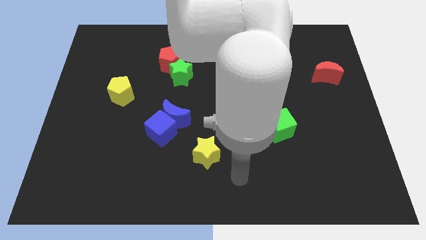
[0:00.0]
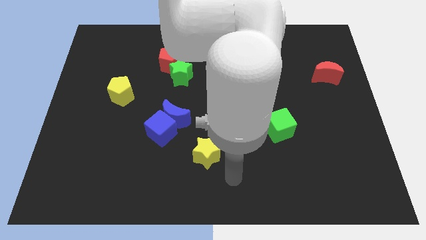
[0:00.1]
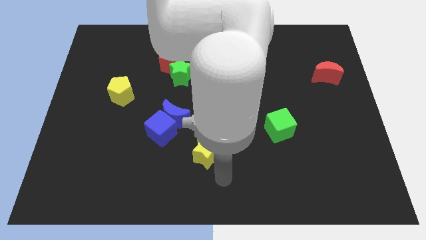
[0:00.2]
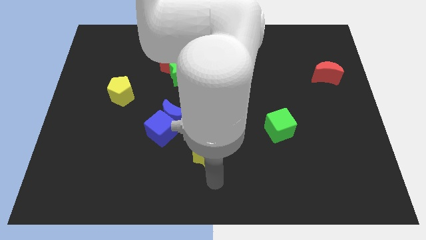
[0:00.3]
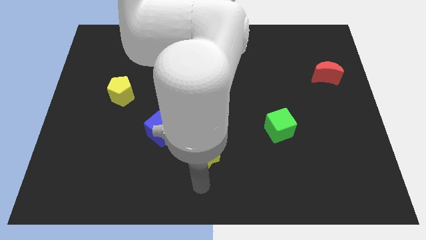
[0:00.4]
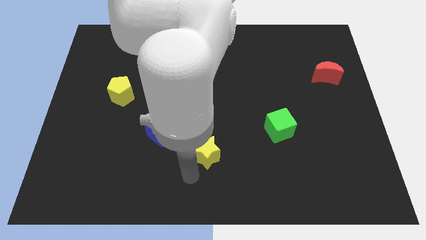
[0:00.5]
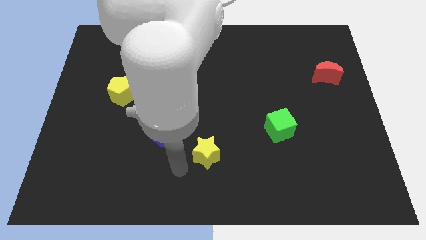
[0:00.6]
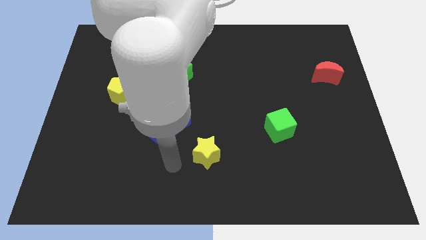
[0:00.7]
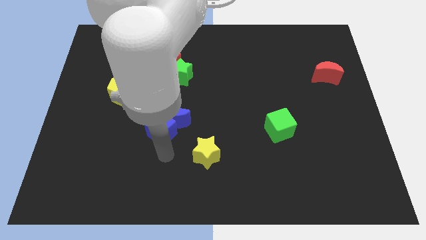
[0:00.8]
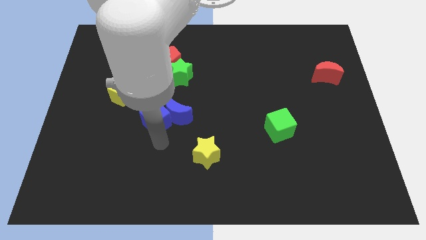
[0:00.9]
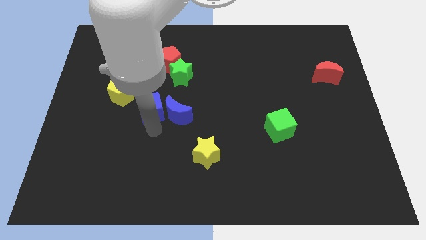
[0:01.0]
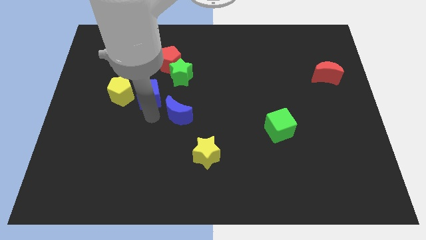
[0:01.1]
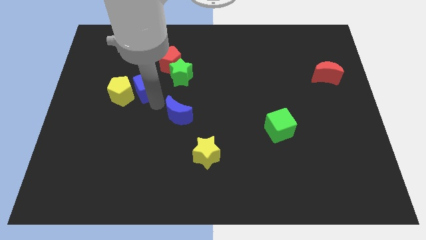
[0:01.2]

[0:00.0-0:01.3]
pull the blue moon apart from the blue cube

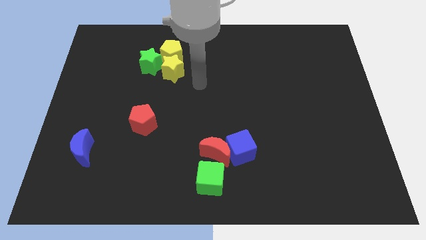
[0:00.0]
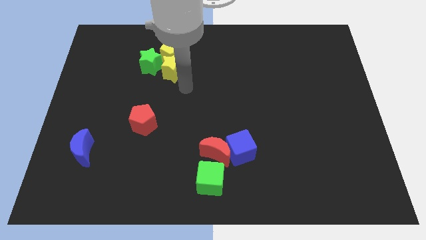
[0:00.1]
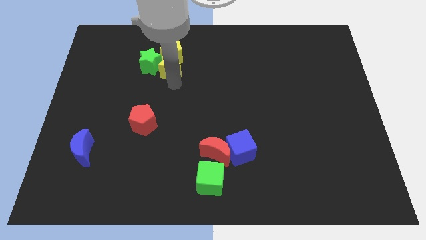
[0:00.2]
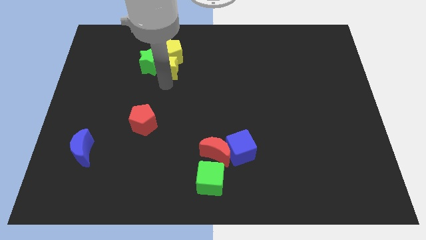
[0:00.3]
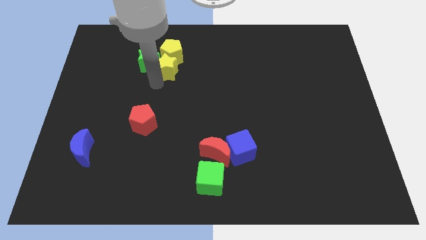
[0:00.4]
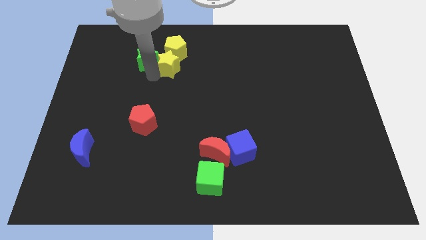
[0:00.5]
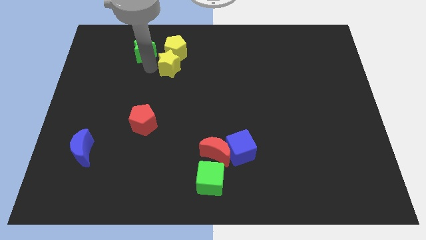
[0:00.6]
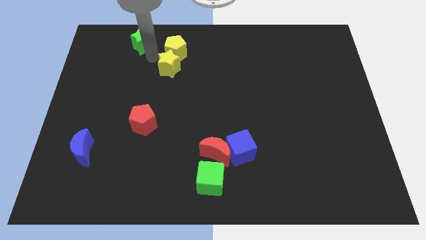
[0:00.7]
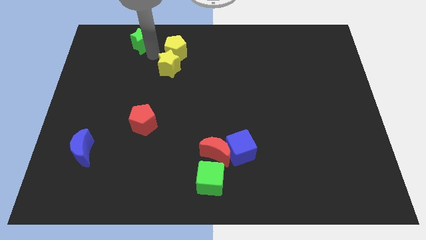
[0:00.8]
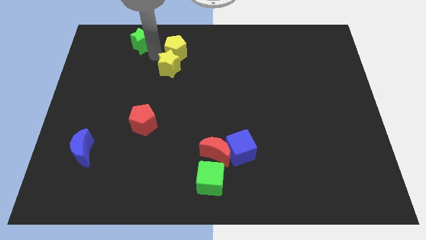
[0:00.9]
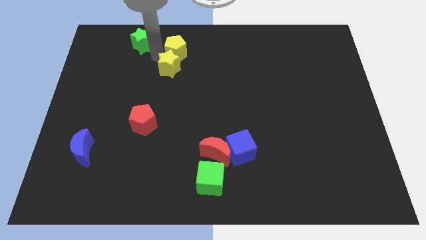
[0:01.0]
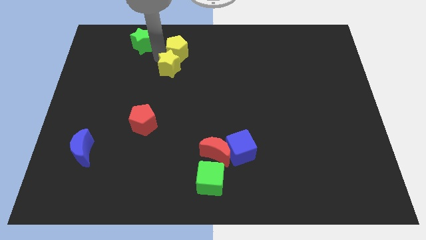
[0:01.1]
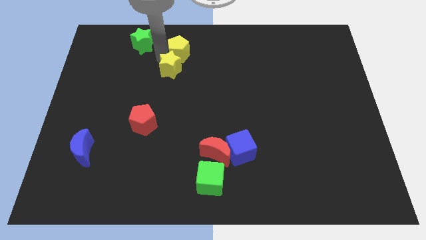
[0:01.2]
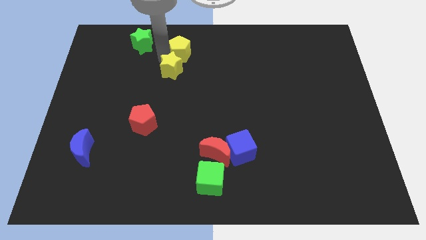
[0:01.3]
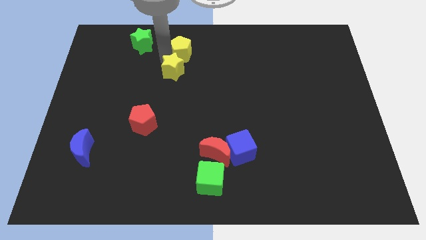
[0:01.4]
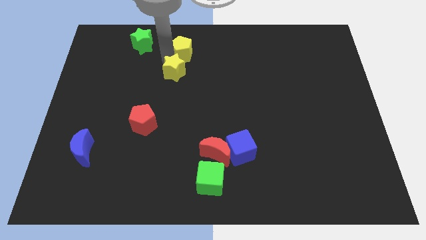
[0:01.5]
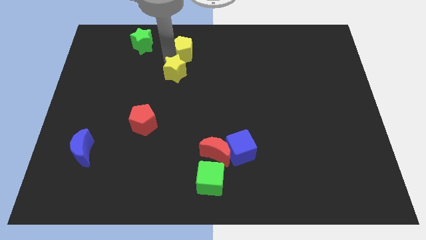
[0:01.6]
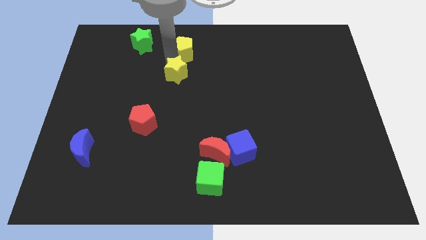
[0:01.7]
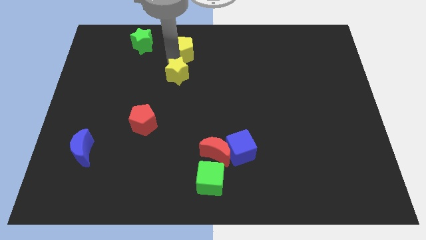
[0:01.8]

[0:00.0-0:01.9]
move the yellow star away from the yellow pentagon and green star

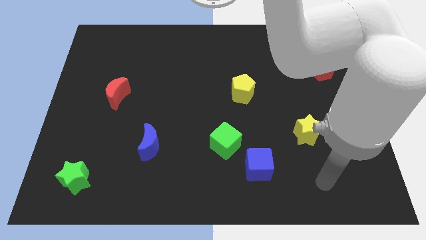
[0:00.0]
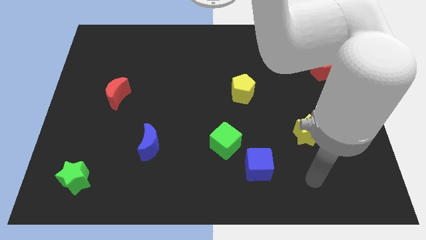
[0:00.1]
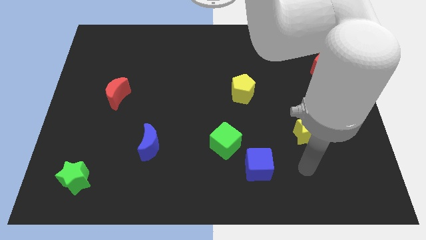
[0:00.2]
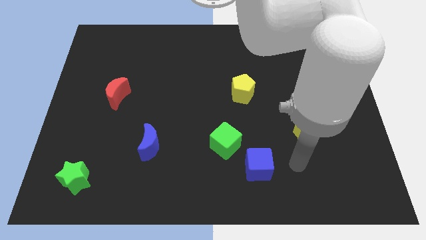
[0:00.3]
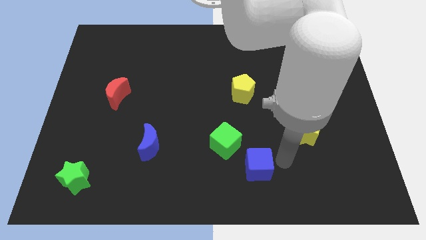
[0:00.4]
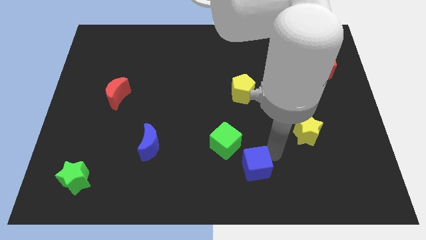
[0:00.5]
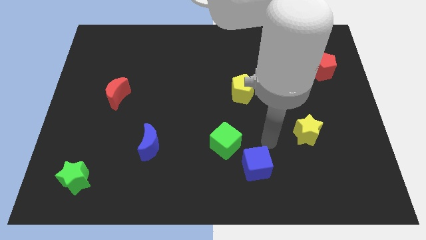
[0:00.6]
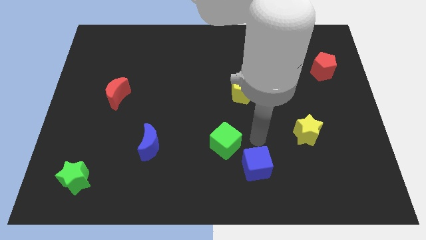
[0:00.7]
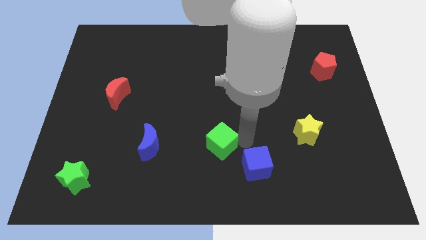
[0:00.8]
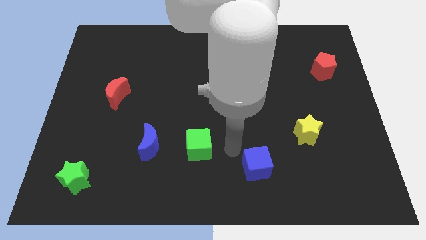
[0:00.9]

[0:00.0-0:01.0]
pull the blue cube apart from the green cube

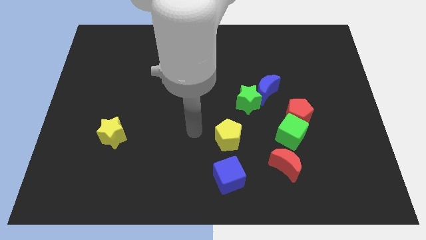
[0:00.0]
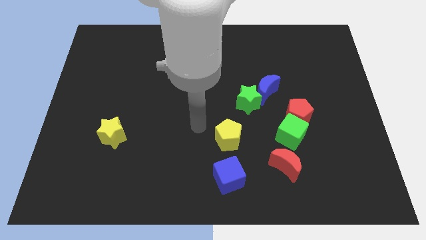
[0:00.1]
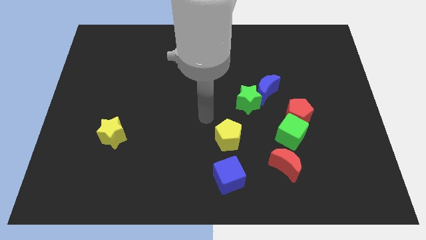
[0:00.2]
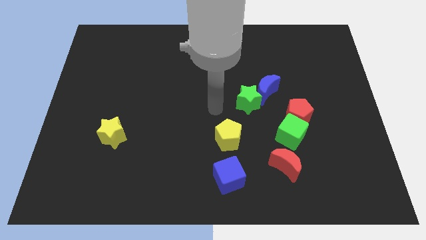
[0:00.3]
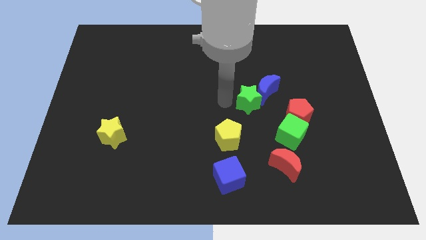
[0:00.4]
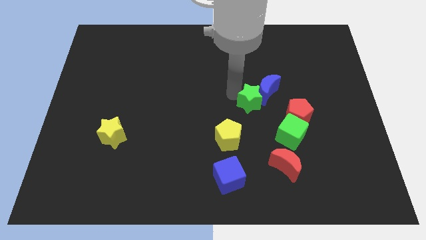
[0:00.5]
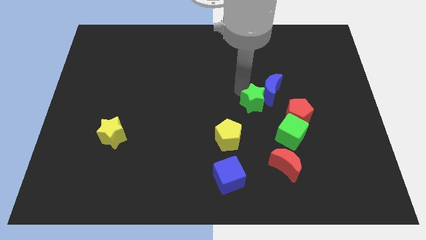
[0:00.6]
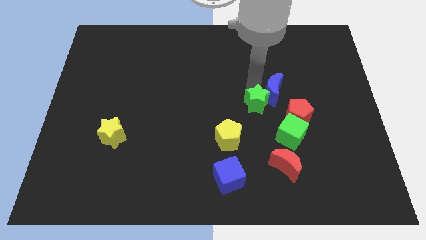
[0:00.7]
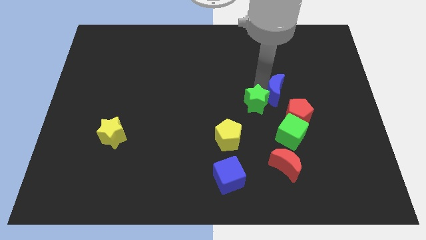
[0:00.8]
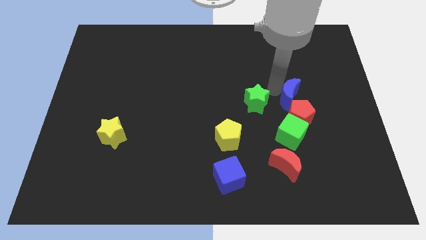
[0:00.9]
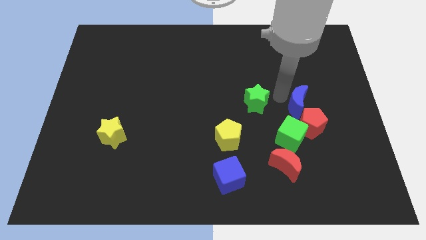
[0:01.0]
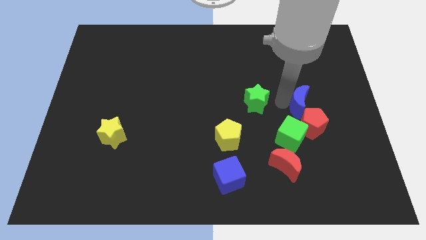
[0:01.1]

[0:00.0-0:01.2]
move the green star away from the blue moon

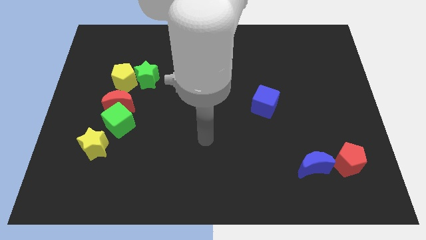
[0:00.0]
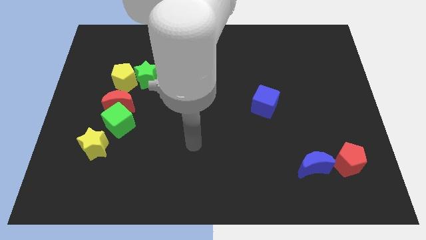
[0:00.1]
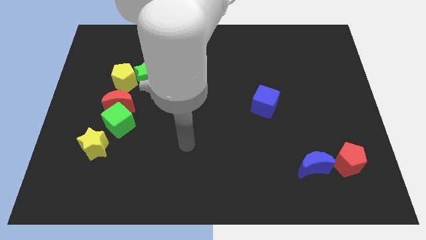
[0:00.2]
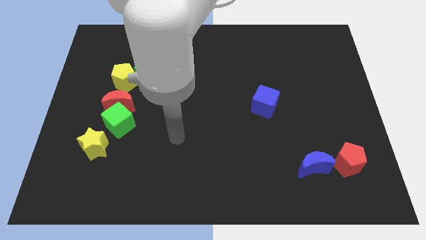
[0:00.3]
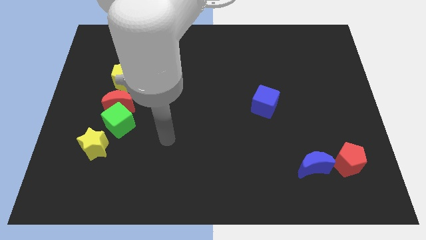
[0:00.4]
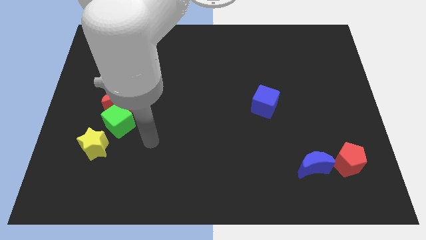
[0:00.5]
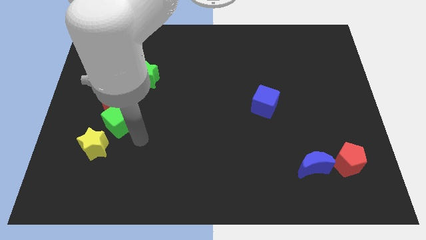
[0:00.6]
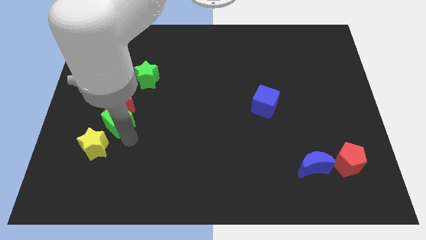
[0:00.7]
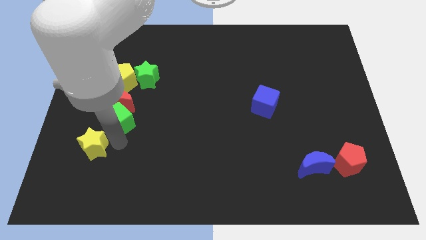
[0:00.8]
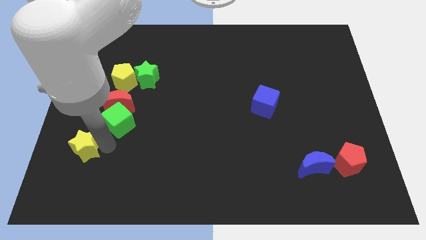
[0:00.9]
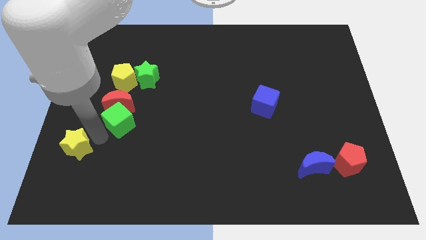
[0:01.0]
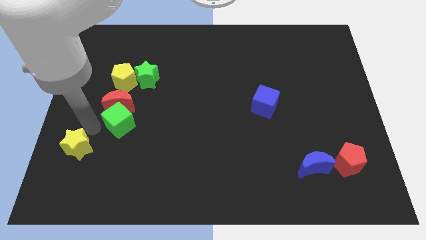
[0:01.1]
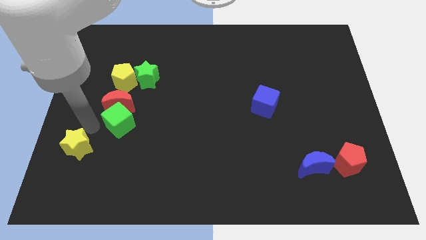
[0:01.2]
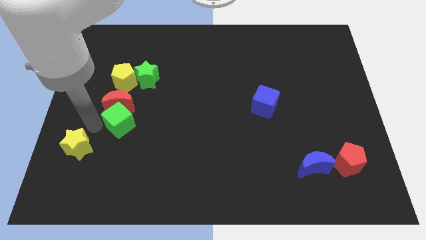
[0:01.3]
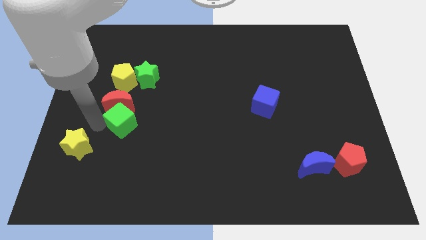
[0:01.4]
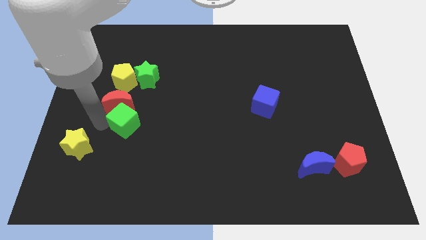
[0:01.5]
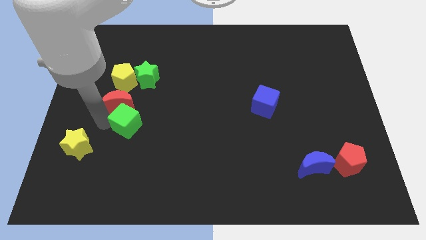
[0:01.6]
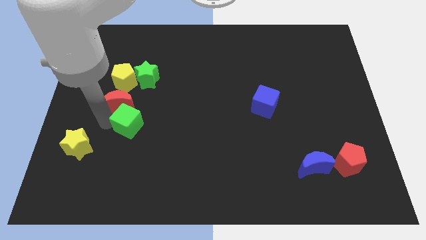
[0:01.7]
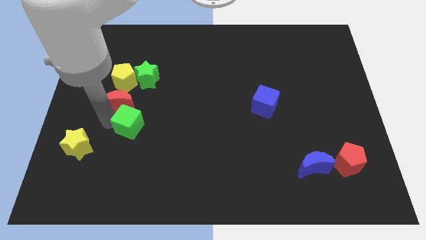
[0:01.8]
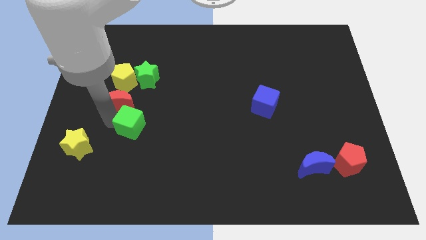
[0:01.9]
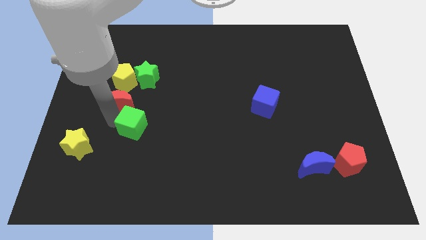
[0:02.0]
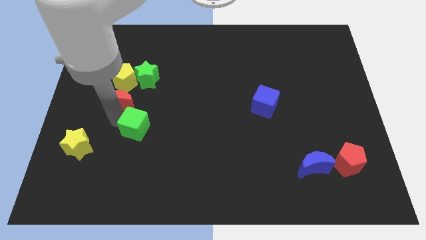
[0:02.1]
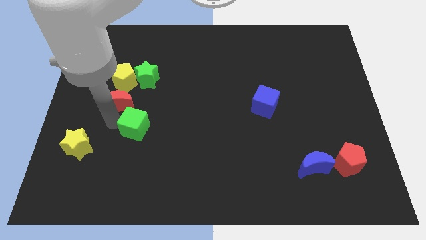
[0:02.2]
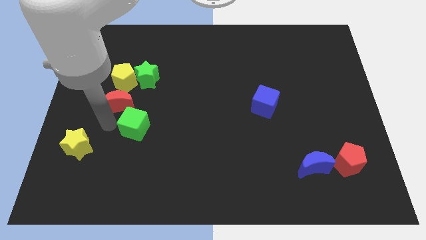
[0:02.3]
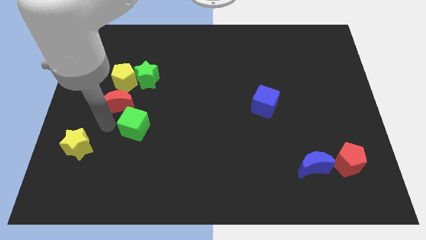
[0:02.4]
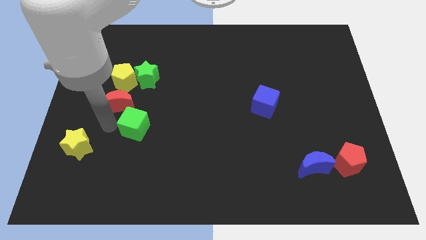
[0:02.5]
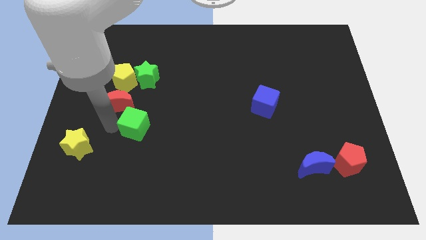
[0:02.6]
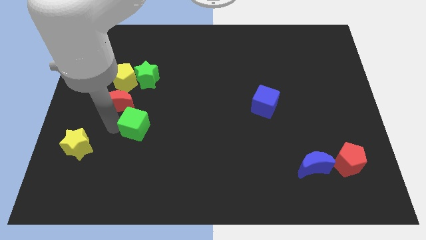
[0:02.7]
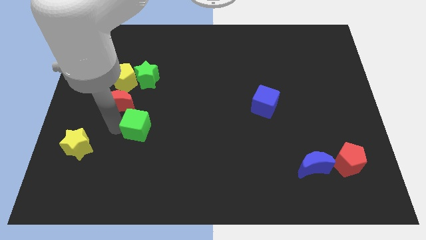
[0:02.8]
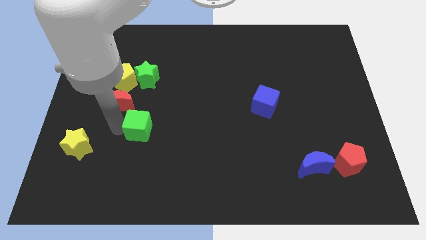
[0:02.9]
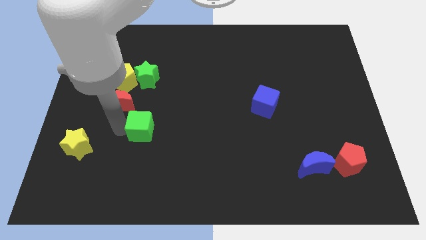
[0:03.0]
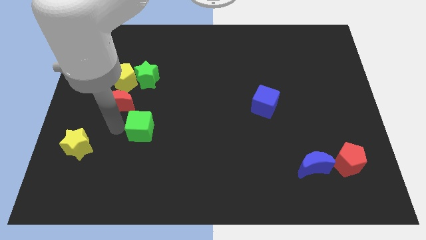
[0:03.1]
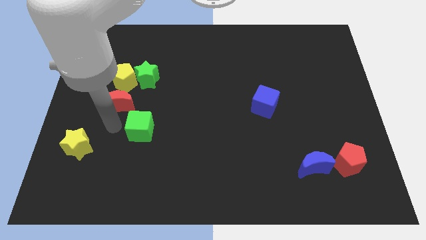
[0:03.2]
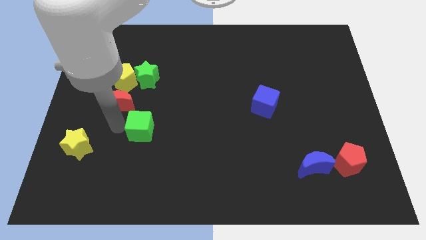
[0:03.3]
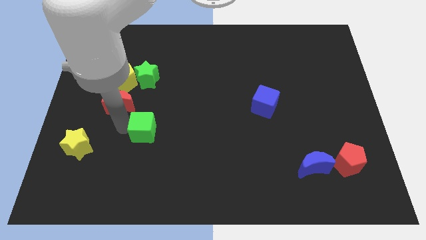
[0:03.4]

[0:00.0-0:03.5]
move the green cube away from the red moon and yellow star

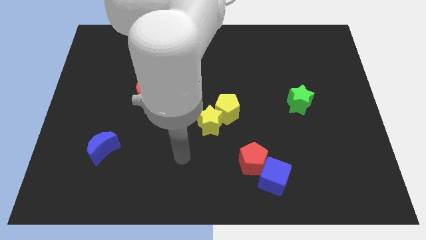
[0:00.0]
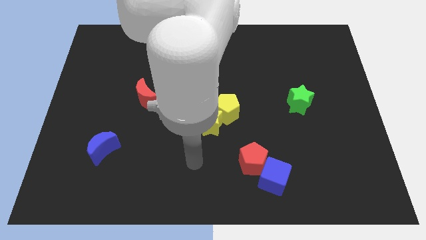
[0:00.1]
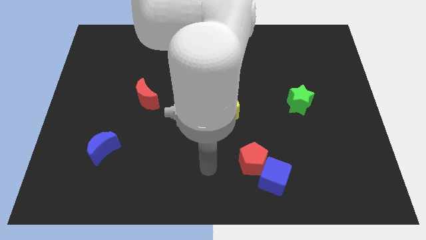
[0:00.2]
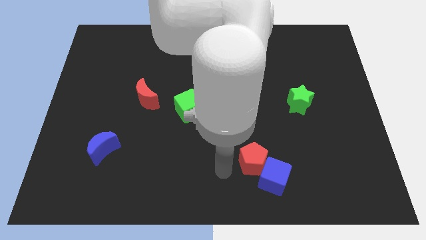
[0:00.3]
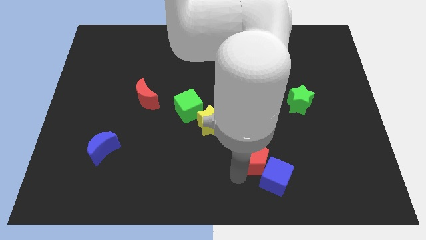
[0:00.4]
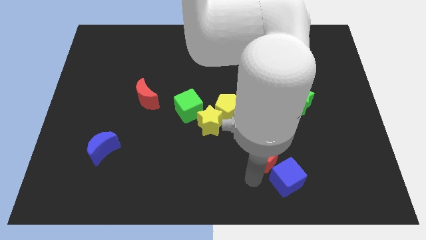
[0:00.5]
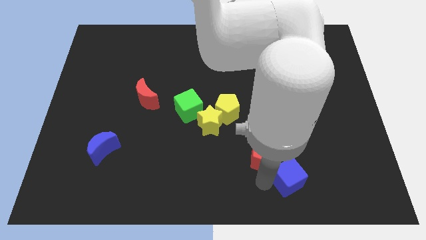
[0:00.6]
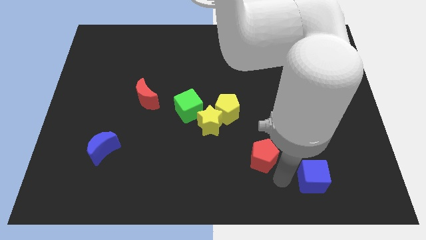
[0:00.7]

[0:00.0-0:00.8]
pull the red pentagon apart from the blue cube
